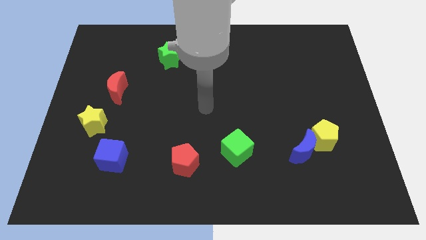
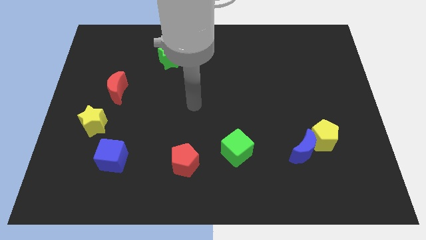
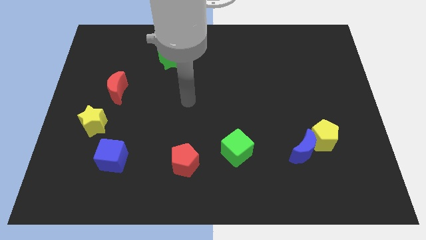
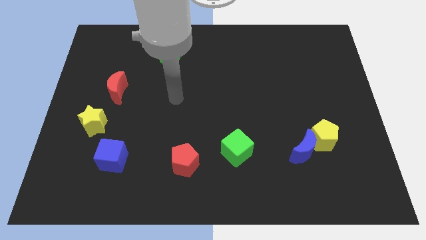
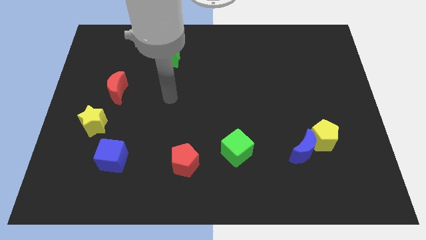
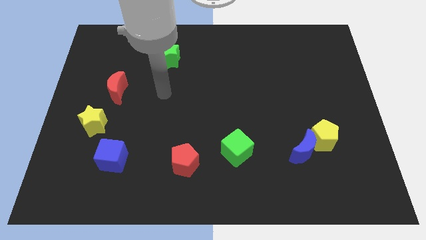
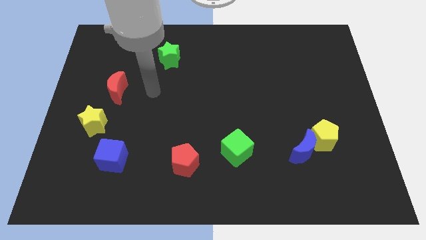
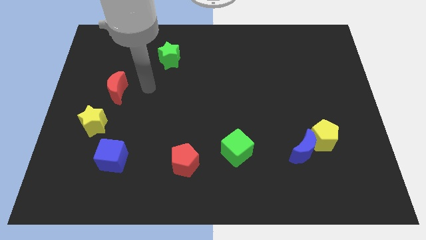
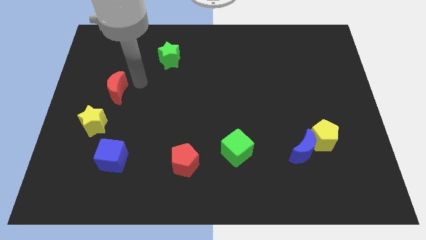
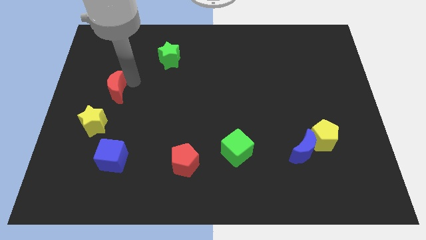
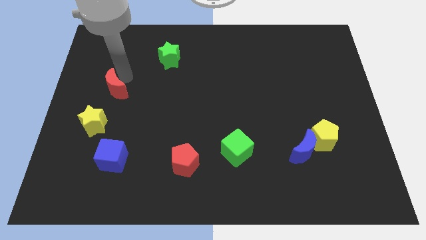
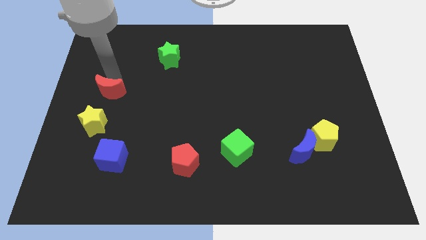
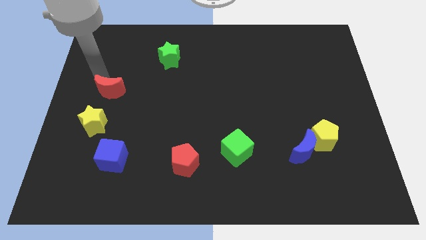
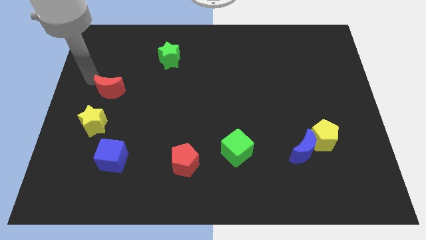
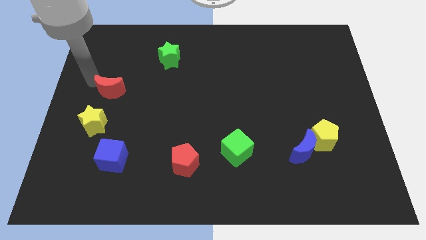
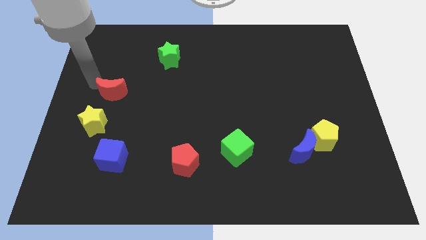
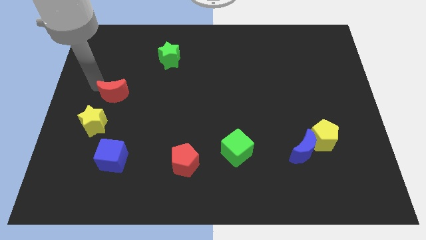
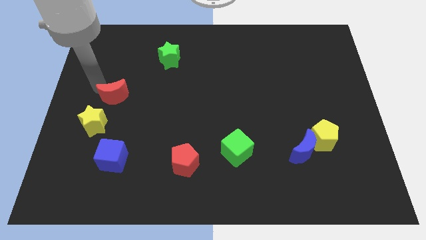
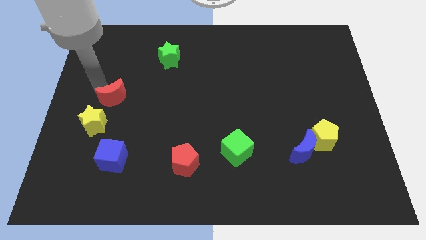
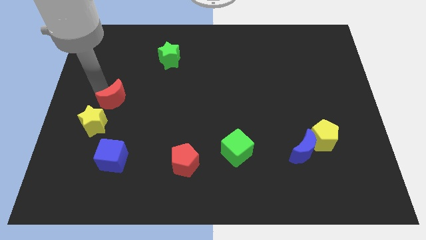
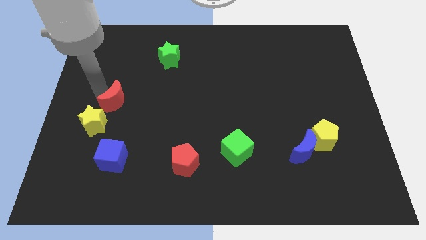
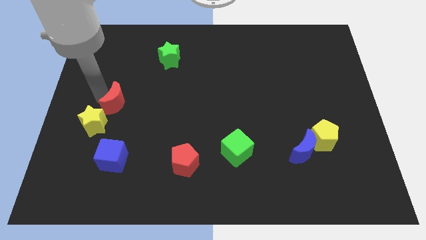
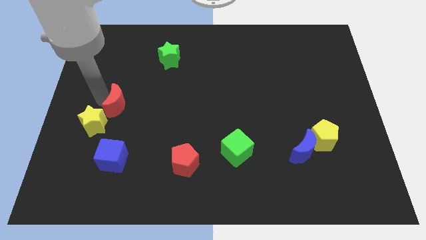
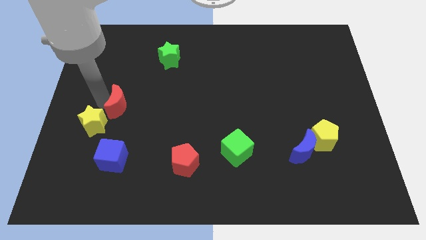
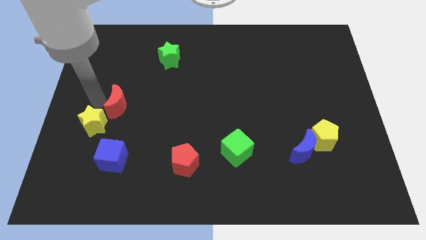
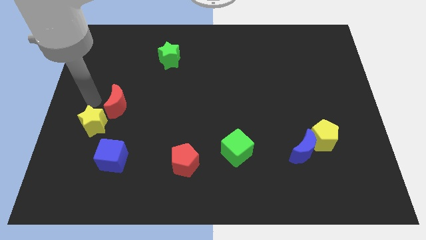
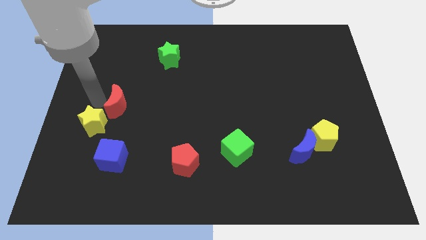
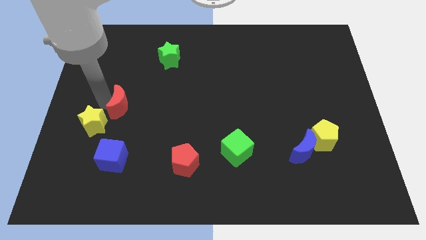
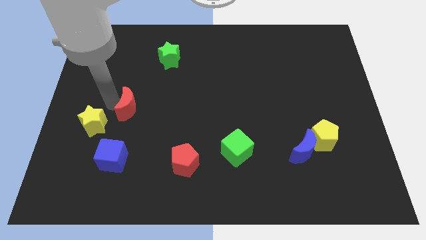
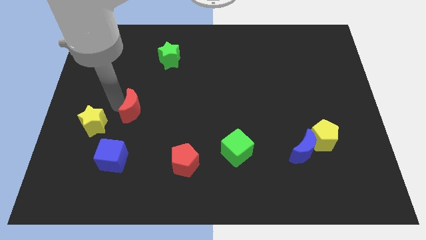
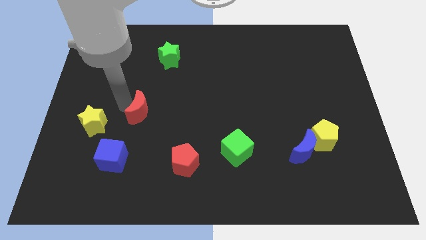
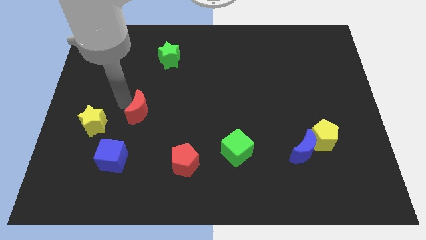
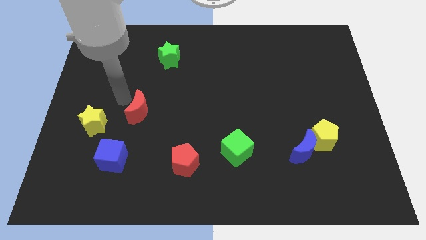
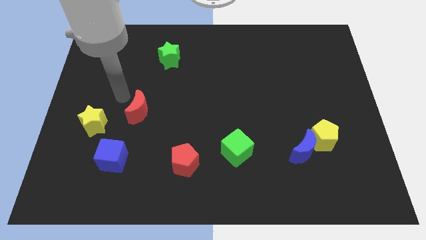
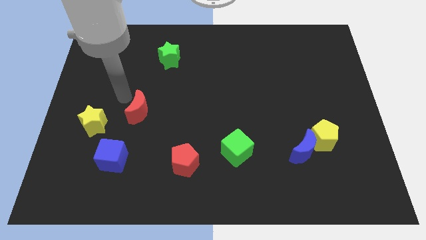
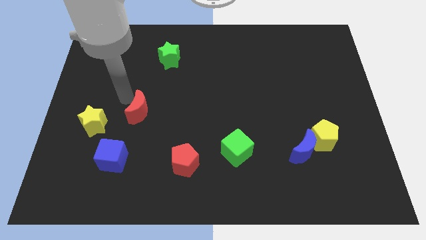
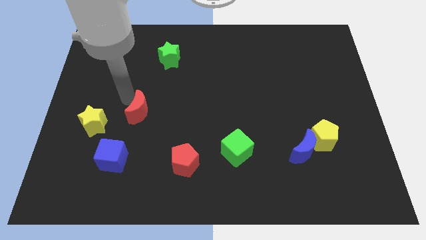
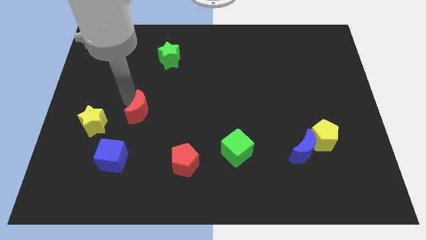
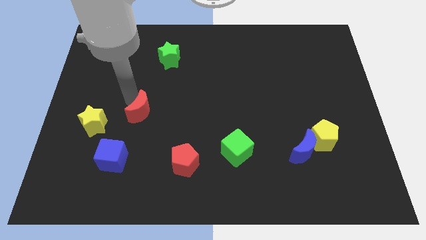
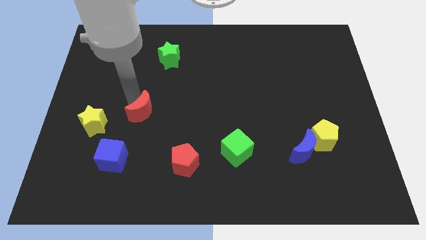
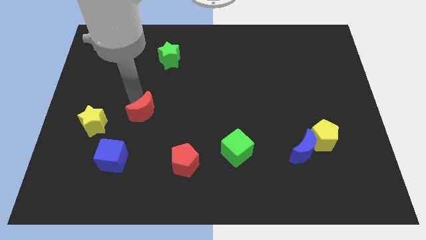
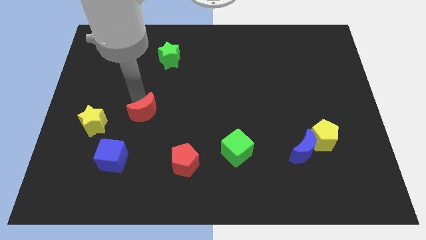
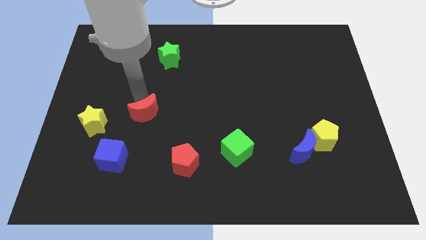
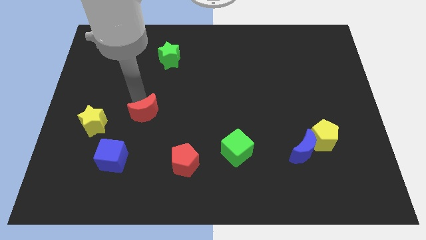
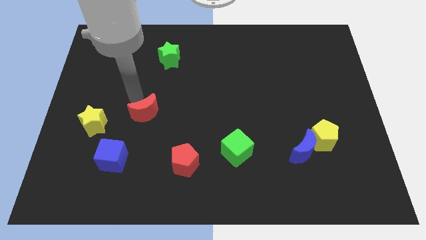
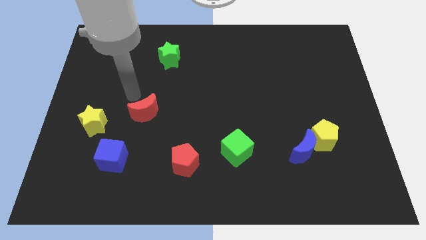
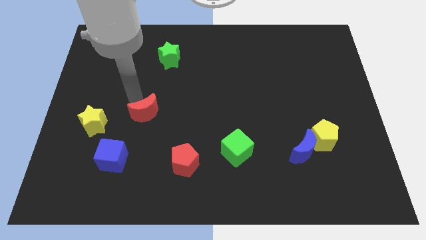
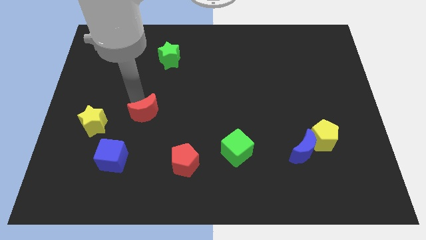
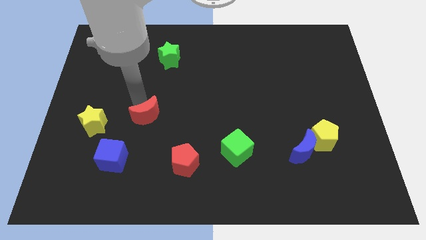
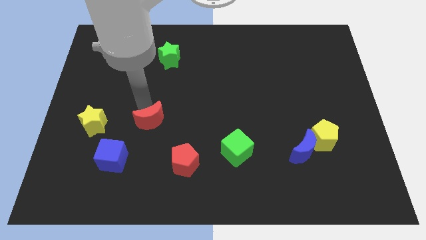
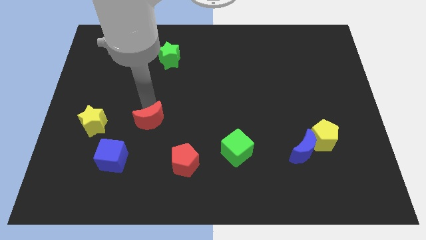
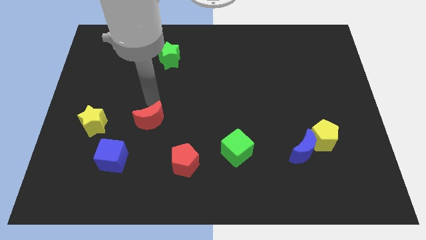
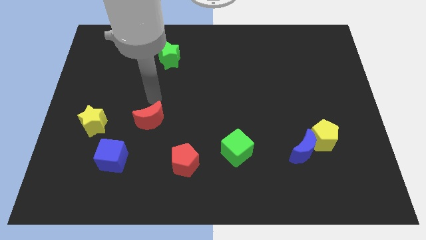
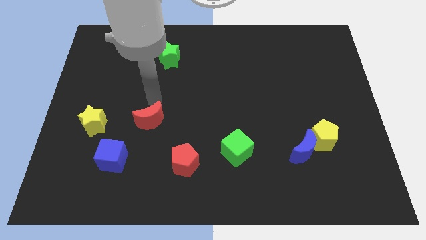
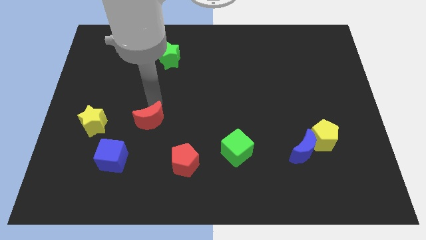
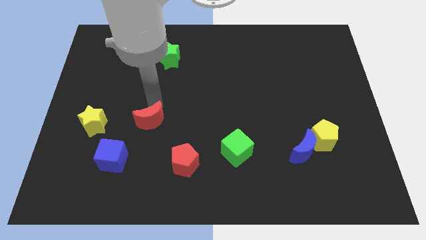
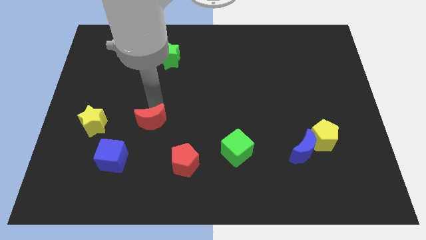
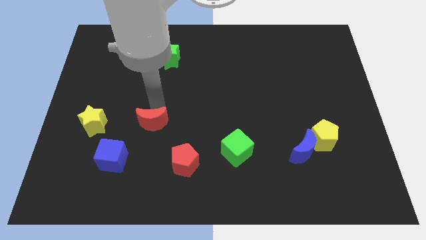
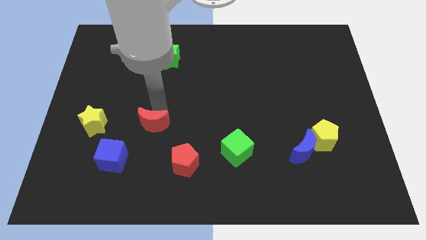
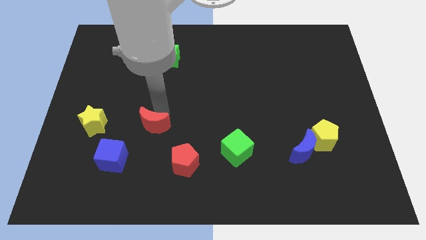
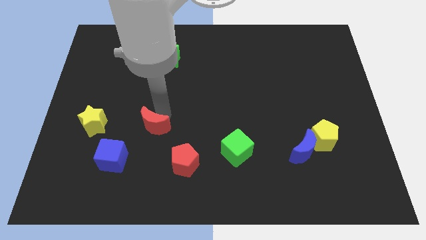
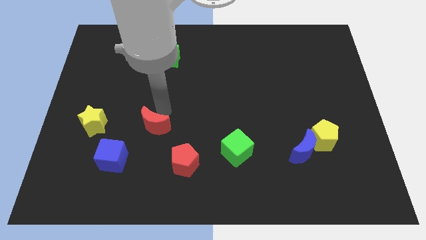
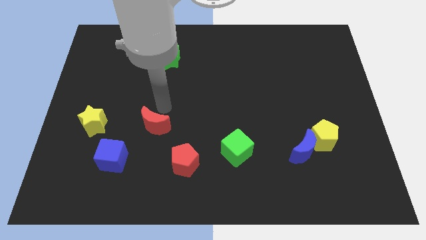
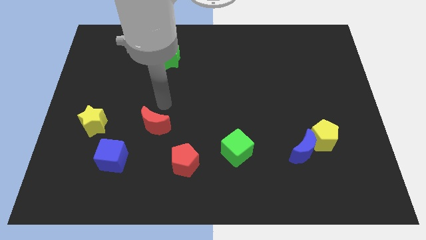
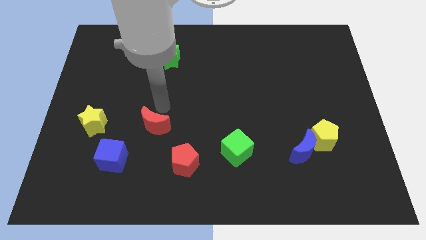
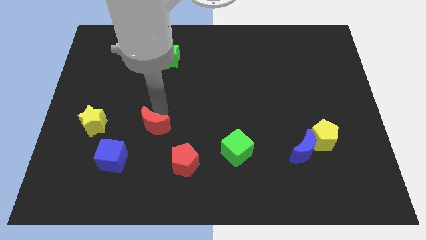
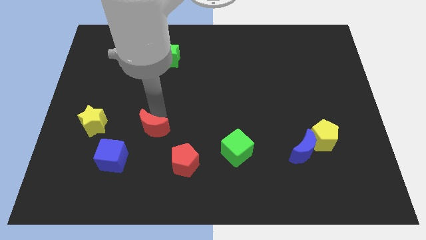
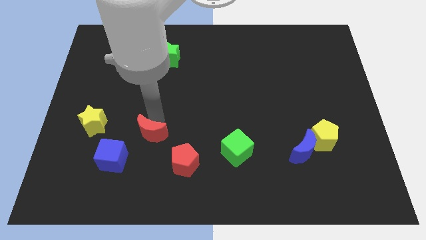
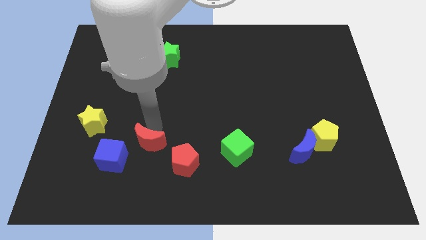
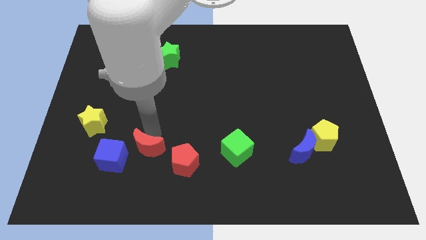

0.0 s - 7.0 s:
move the red moon just left of the red pentagon

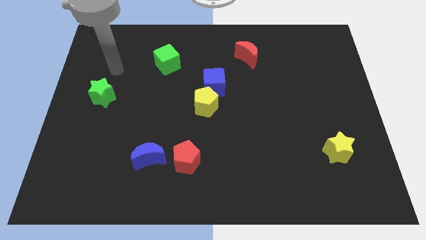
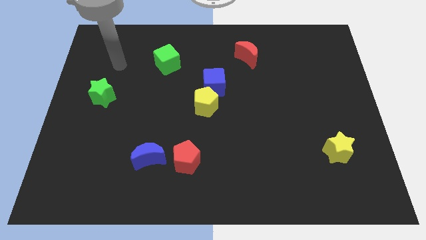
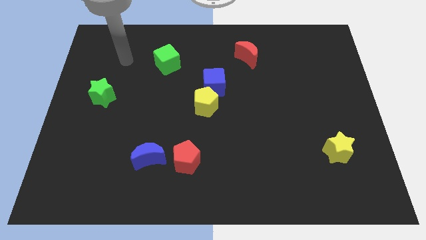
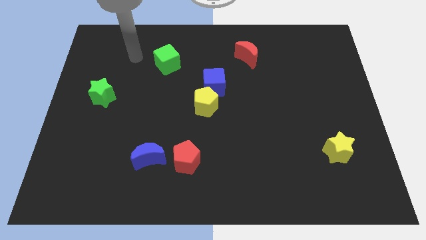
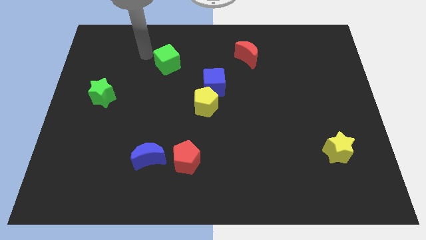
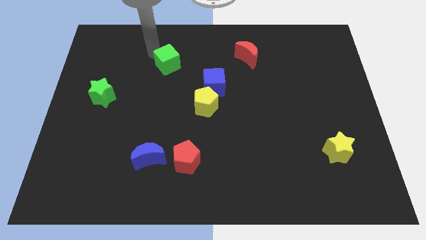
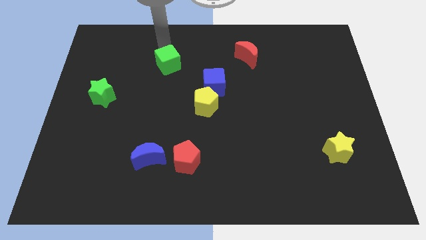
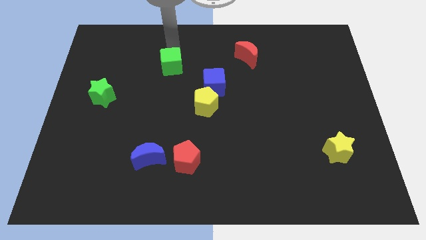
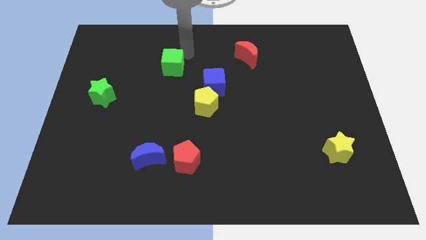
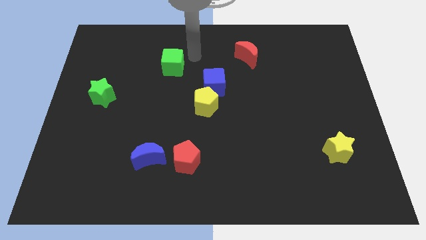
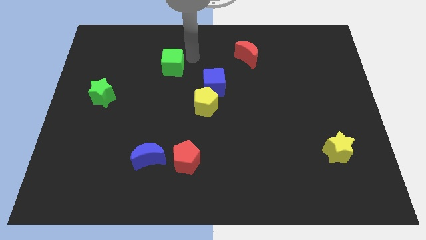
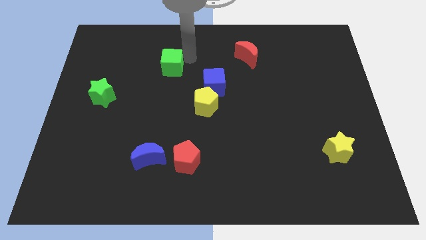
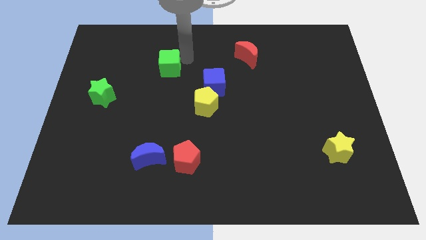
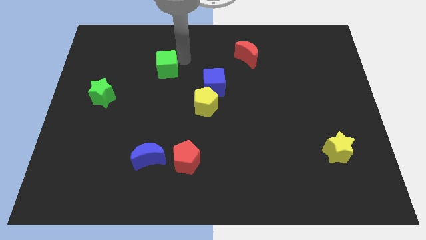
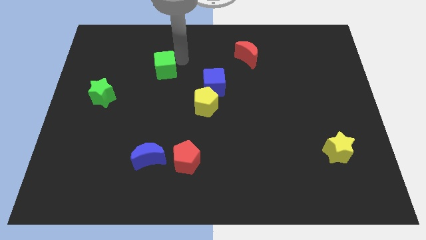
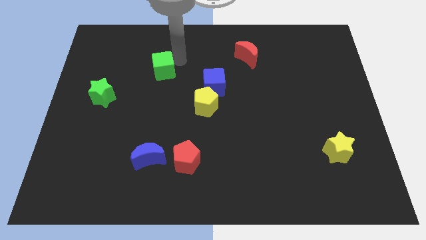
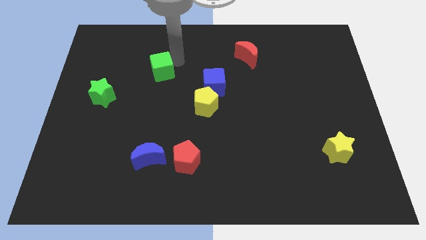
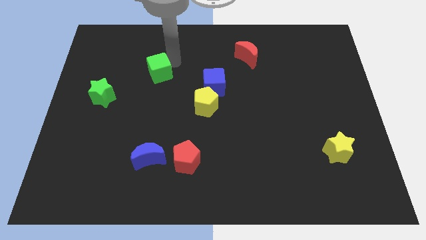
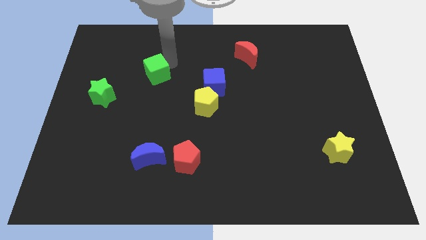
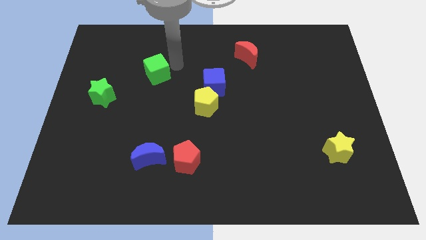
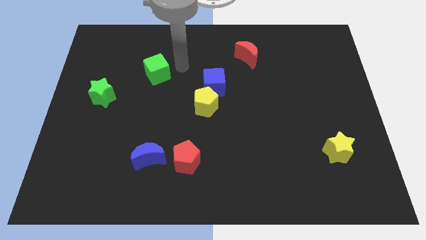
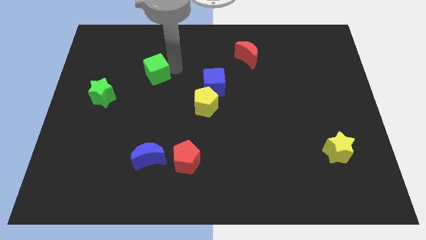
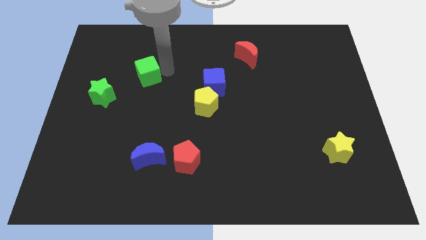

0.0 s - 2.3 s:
push the green cube diagonally up and to the right of the green star
